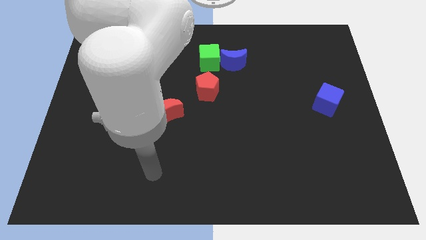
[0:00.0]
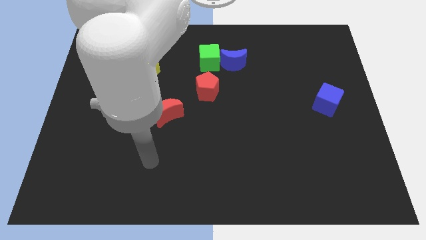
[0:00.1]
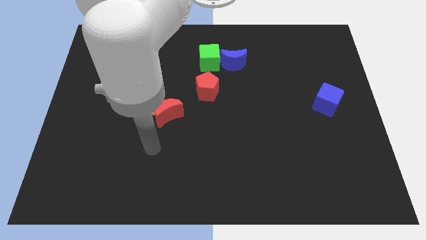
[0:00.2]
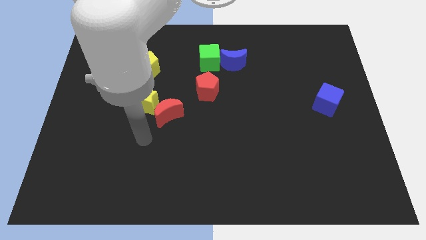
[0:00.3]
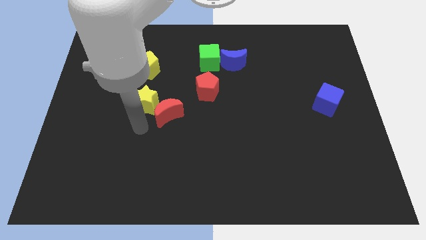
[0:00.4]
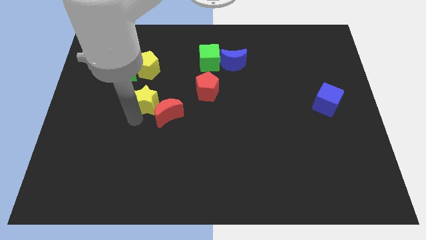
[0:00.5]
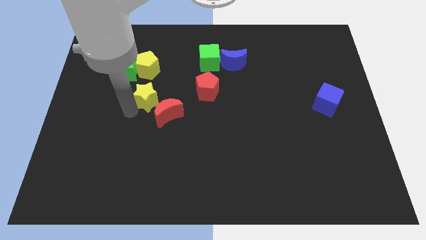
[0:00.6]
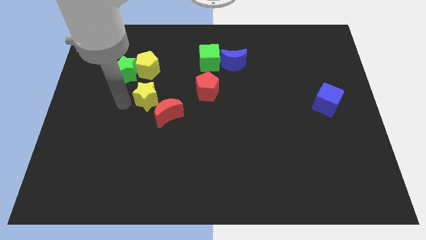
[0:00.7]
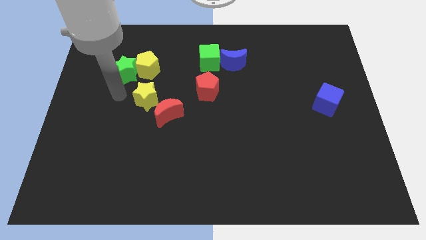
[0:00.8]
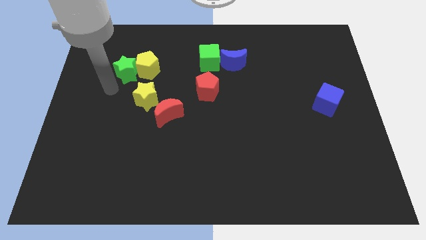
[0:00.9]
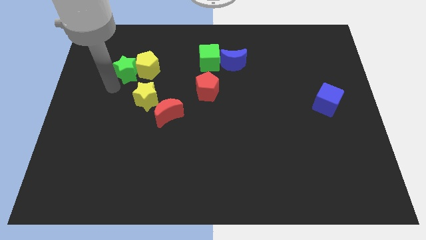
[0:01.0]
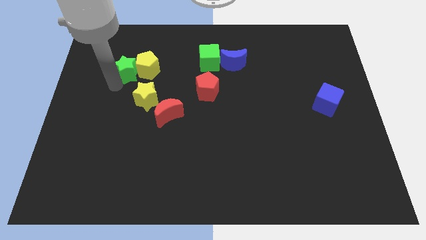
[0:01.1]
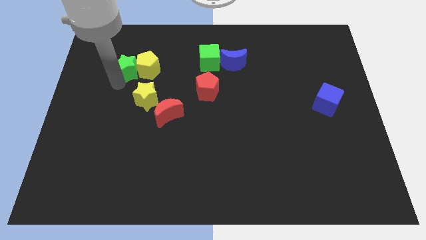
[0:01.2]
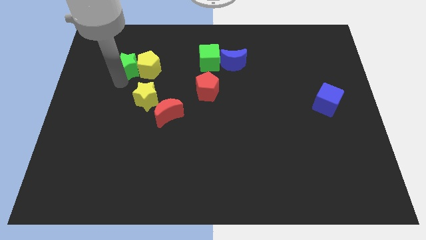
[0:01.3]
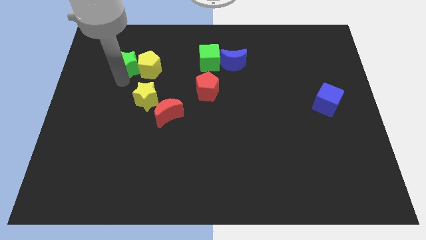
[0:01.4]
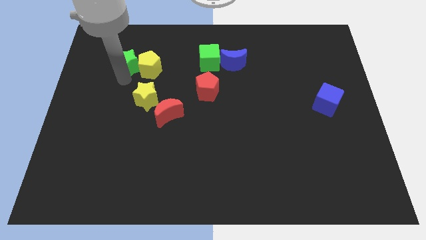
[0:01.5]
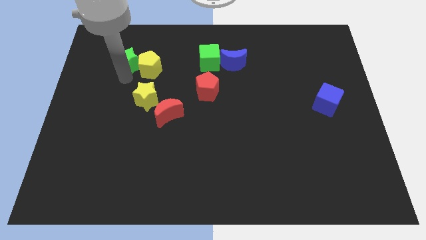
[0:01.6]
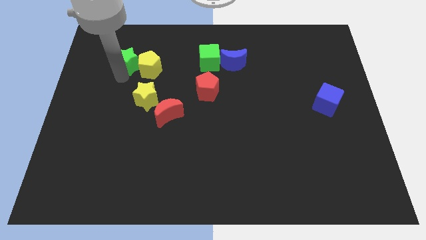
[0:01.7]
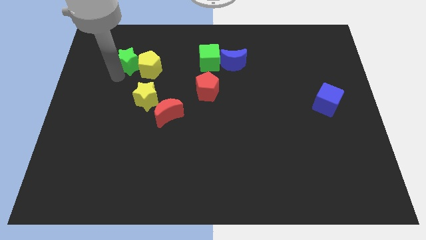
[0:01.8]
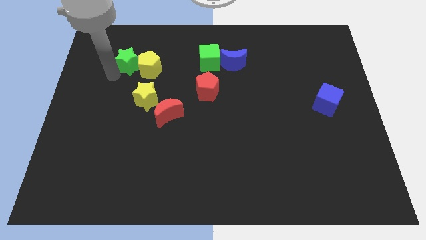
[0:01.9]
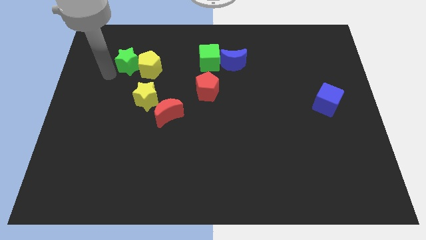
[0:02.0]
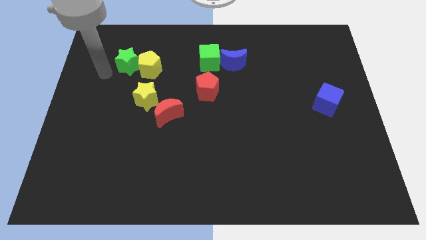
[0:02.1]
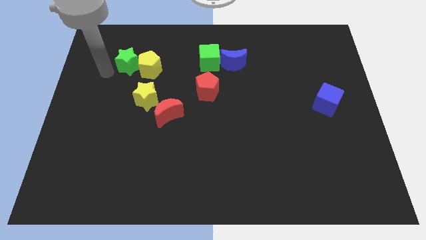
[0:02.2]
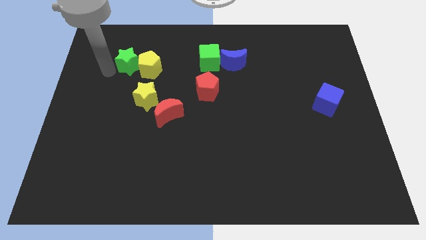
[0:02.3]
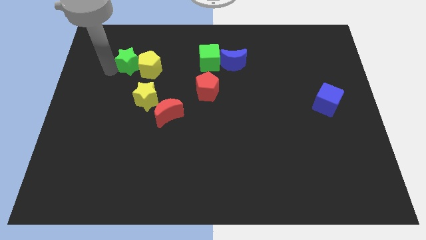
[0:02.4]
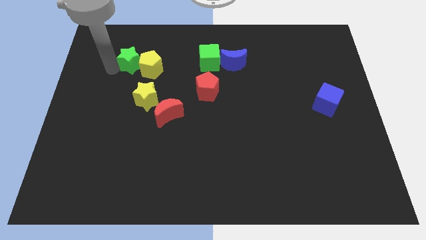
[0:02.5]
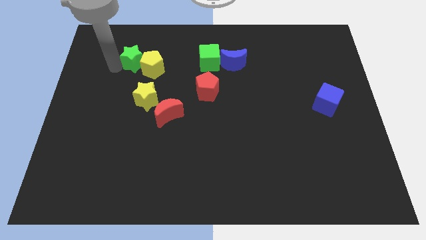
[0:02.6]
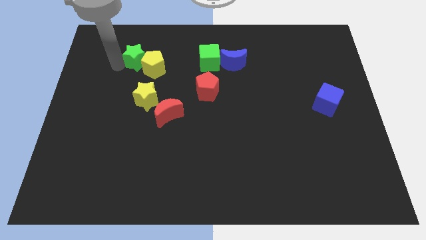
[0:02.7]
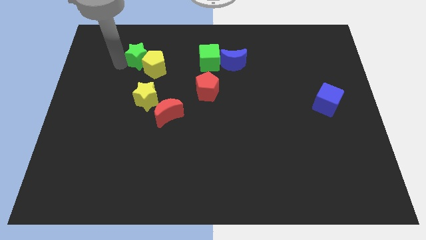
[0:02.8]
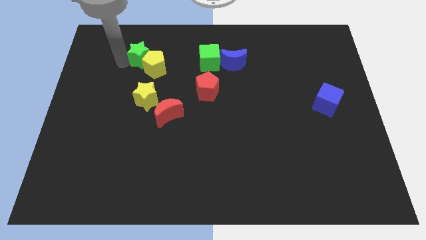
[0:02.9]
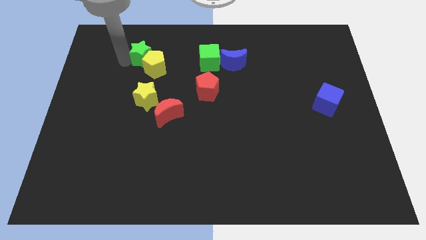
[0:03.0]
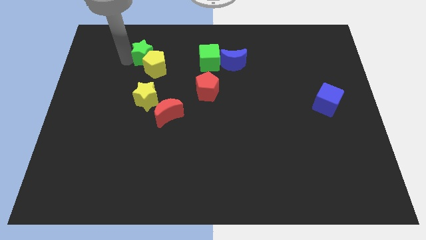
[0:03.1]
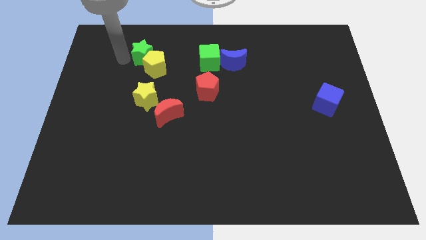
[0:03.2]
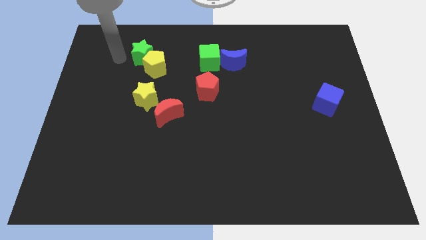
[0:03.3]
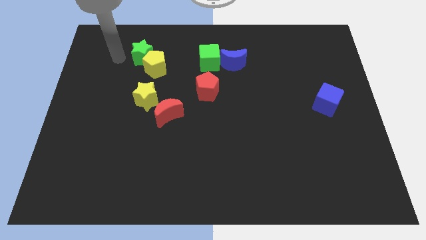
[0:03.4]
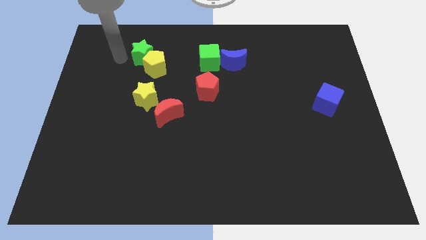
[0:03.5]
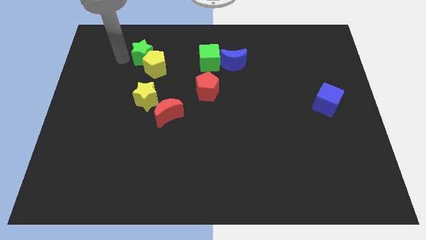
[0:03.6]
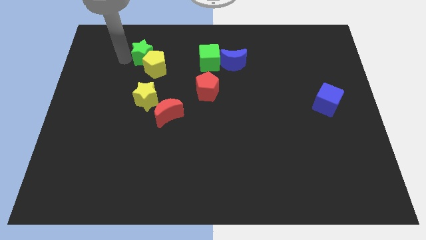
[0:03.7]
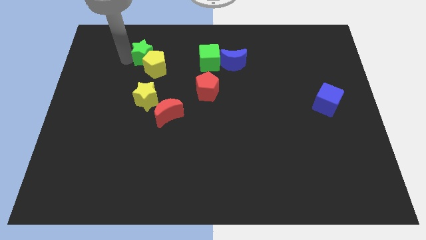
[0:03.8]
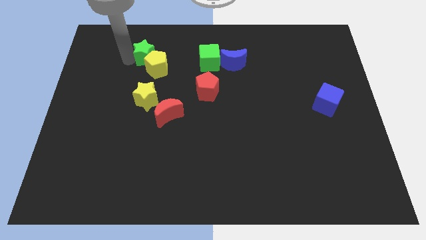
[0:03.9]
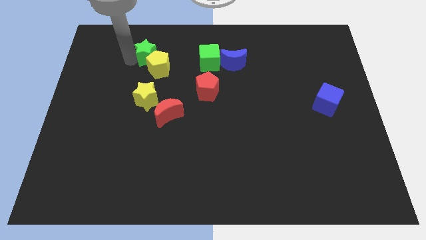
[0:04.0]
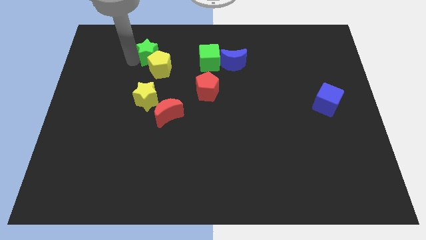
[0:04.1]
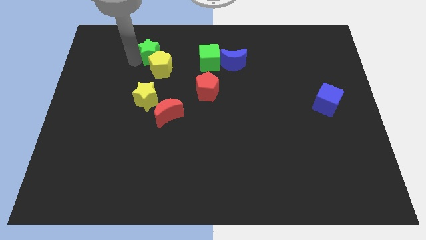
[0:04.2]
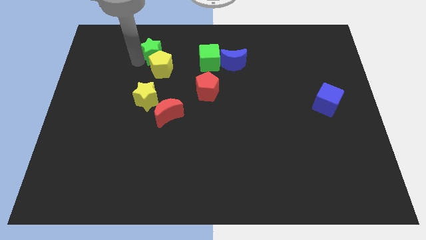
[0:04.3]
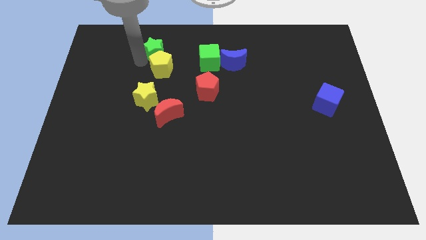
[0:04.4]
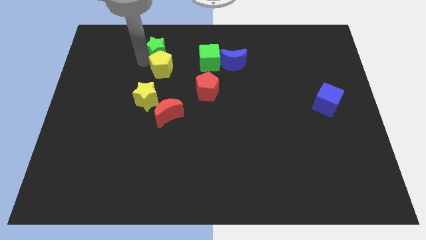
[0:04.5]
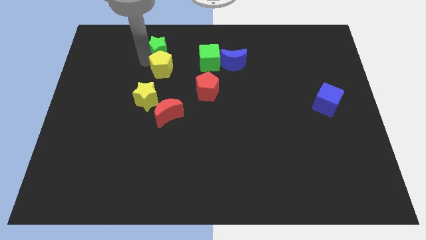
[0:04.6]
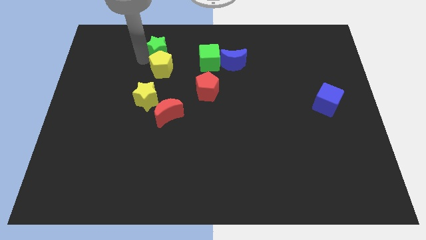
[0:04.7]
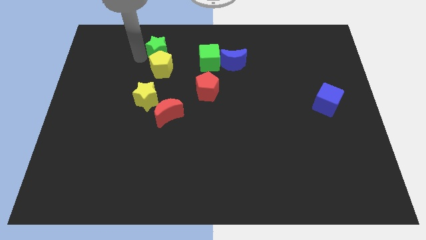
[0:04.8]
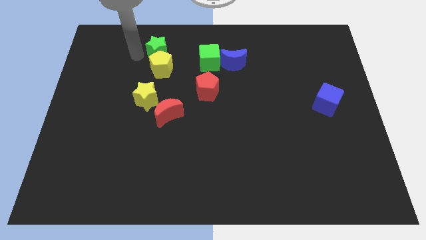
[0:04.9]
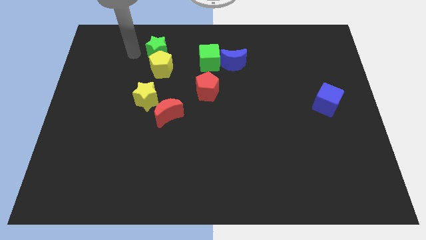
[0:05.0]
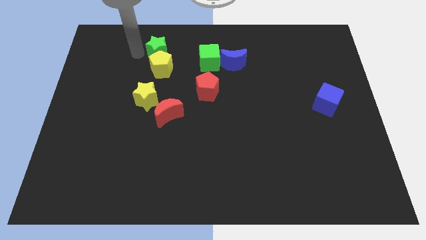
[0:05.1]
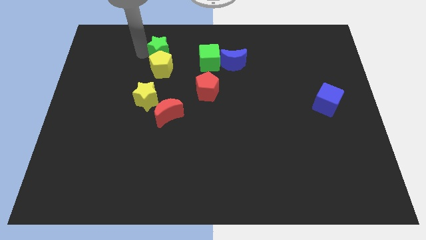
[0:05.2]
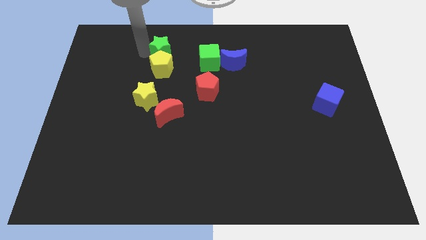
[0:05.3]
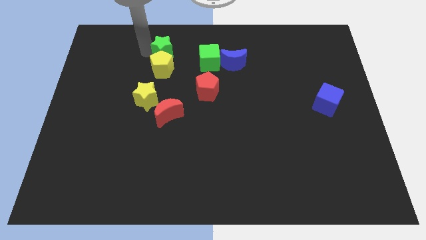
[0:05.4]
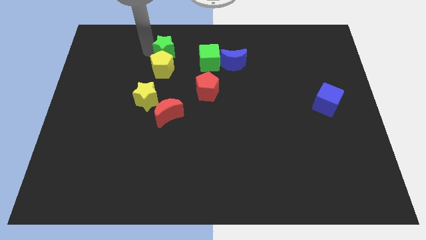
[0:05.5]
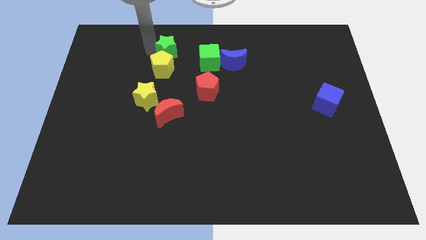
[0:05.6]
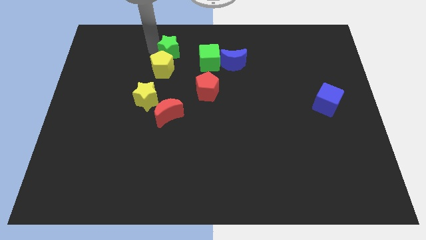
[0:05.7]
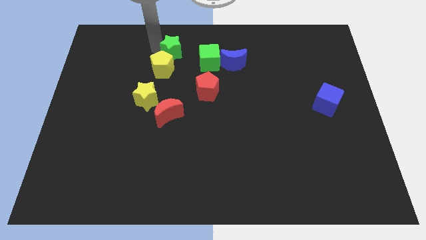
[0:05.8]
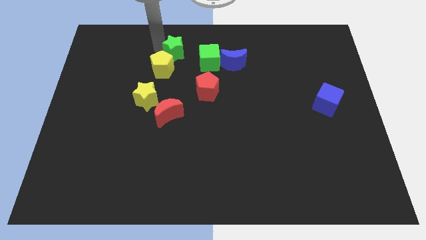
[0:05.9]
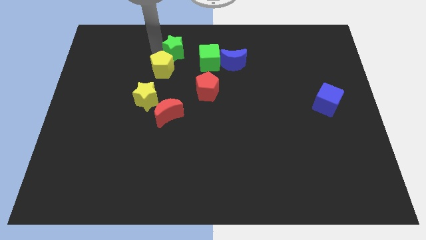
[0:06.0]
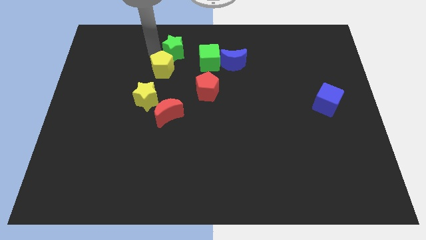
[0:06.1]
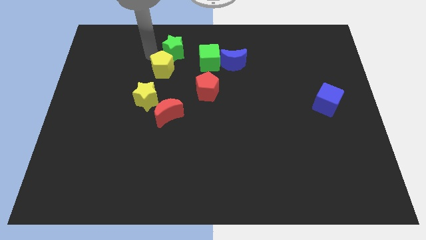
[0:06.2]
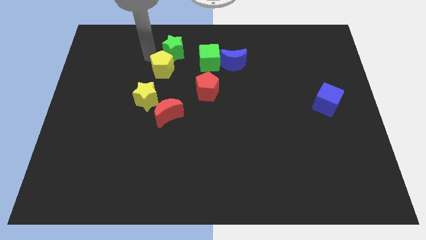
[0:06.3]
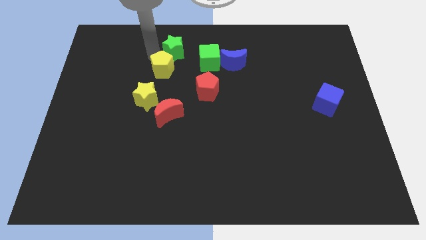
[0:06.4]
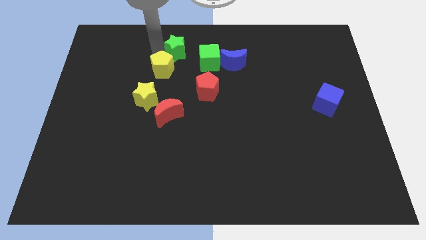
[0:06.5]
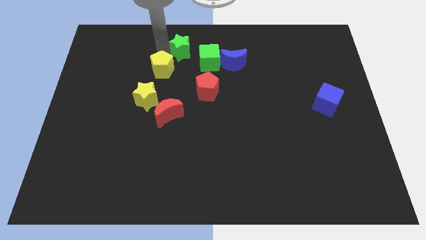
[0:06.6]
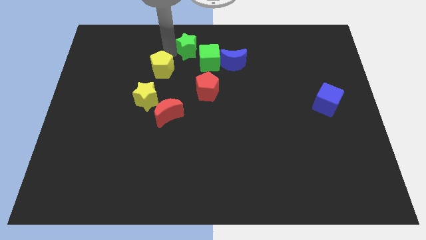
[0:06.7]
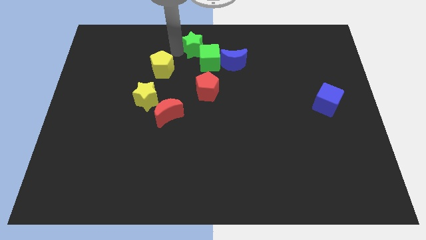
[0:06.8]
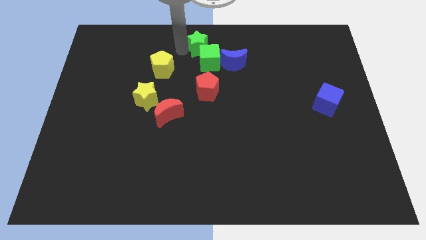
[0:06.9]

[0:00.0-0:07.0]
move the green star above the red pentagon

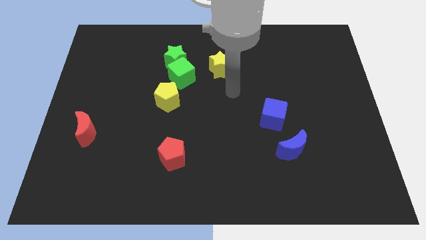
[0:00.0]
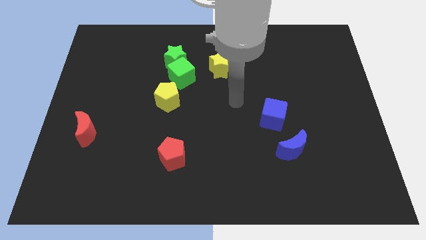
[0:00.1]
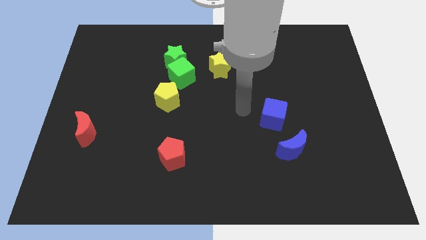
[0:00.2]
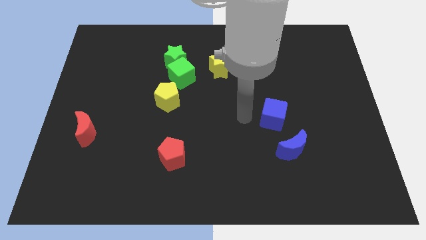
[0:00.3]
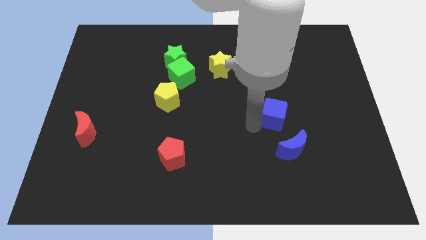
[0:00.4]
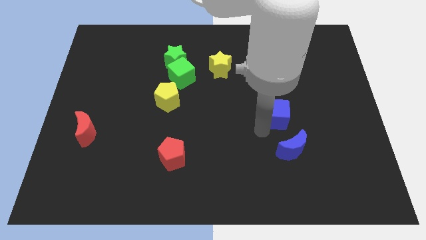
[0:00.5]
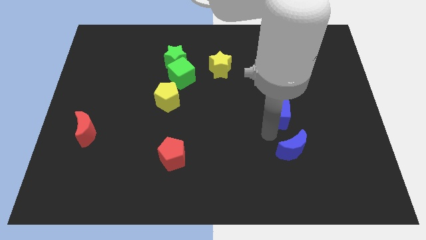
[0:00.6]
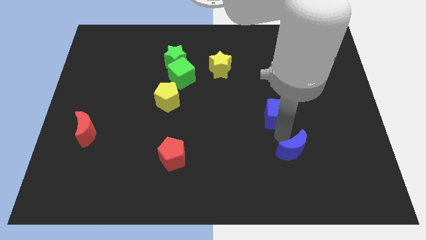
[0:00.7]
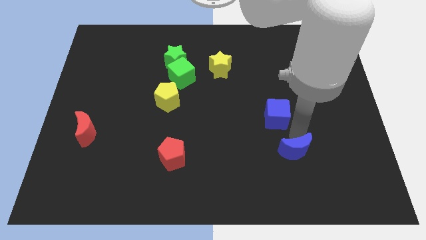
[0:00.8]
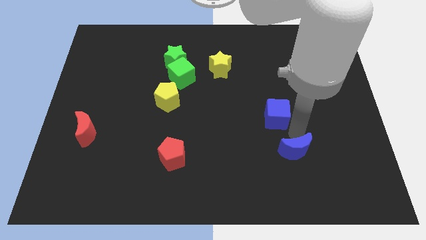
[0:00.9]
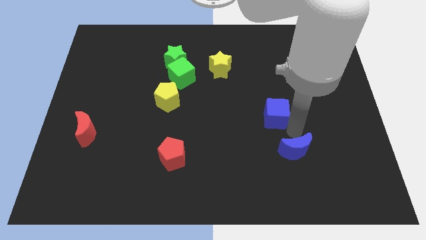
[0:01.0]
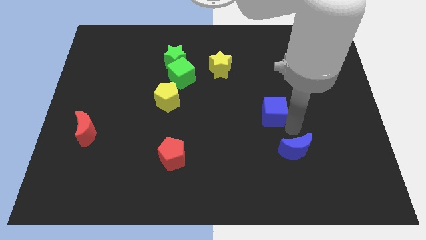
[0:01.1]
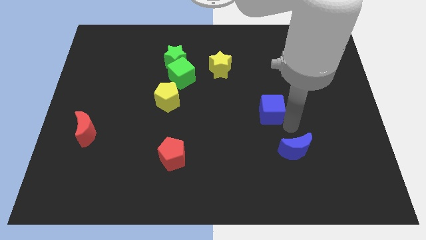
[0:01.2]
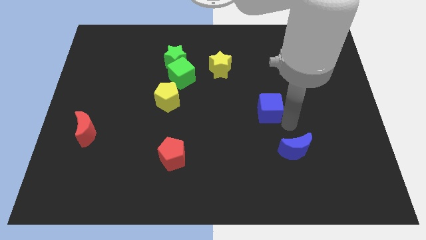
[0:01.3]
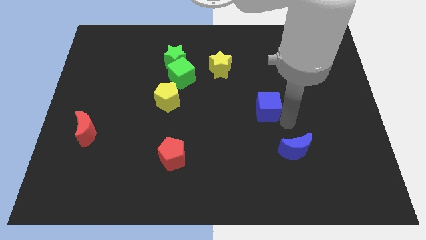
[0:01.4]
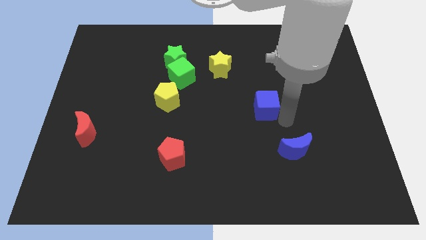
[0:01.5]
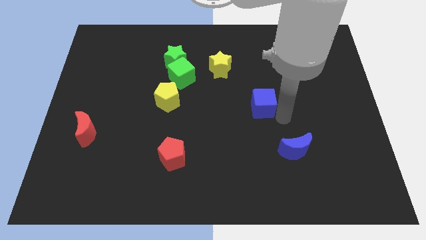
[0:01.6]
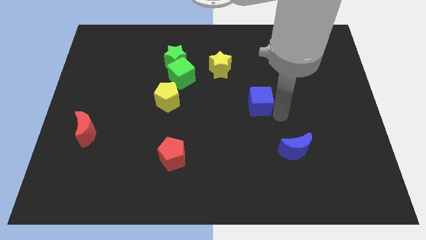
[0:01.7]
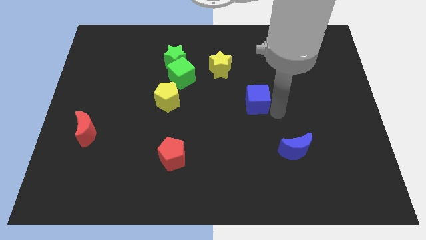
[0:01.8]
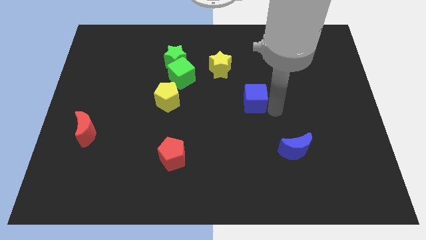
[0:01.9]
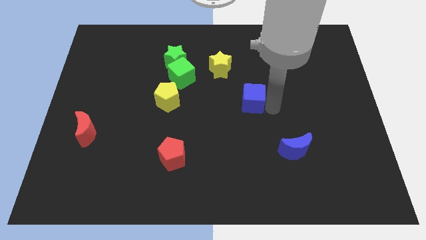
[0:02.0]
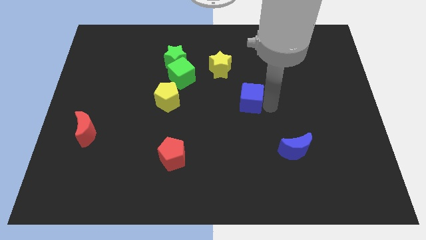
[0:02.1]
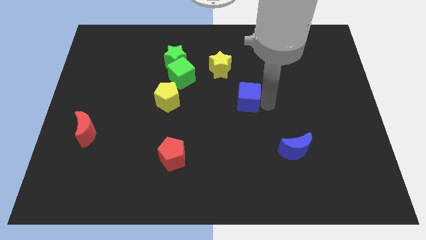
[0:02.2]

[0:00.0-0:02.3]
put the blue cube diagonally down and to the right of the yellow star
